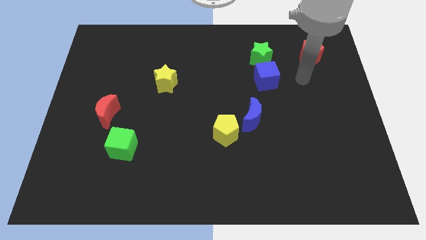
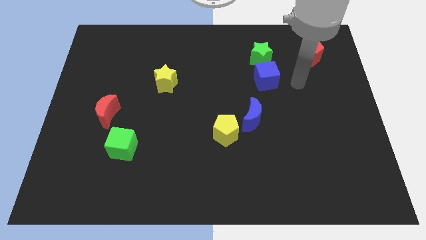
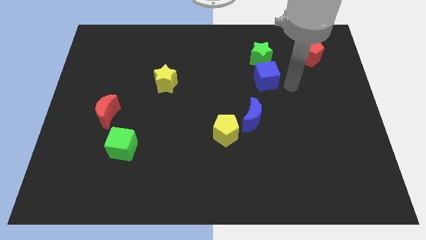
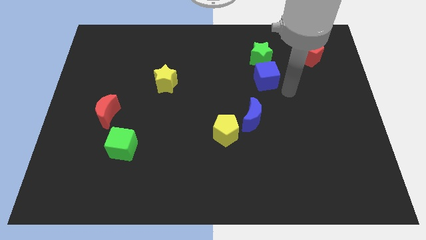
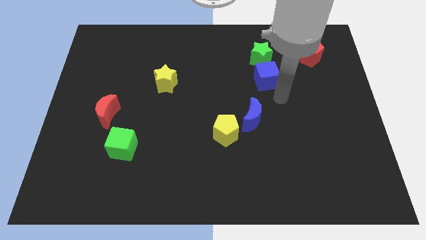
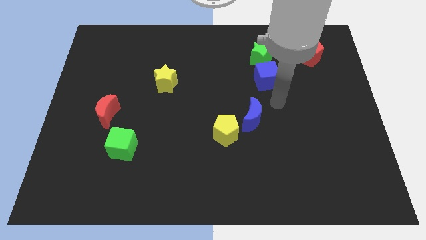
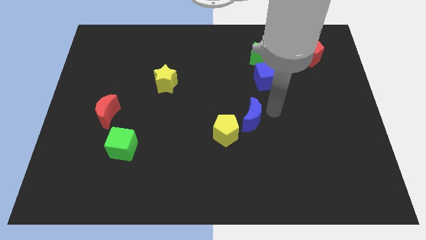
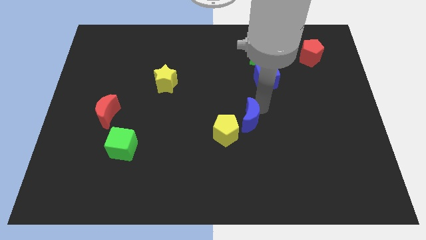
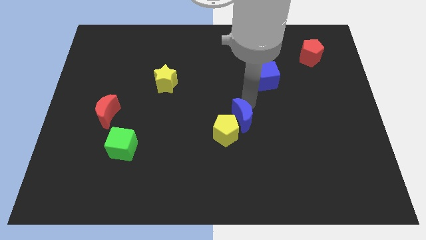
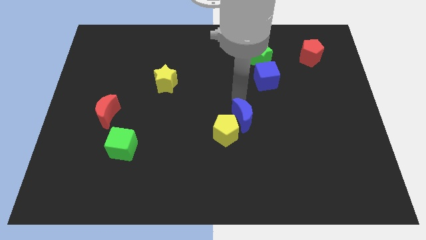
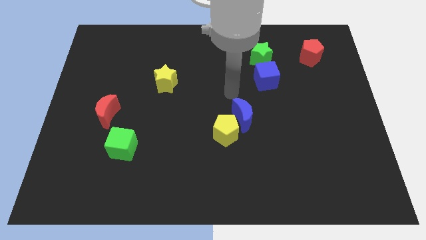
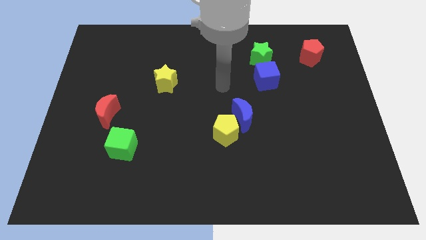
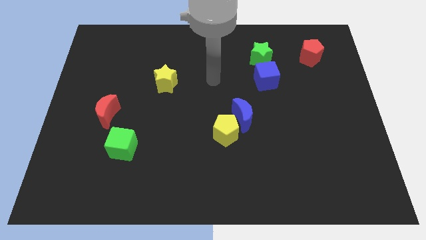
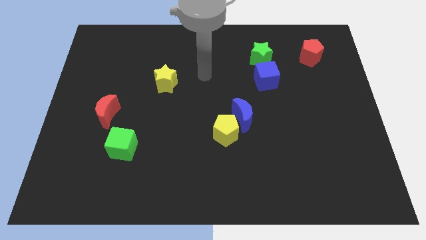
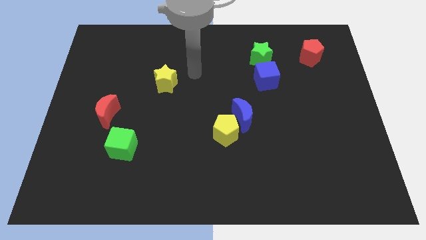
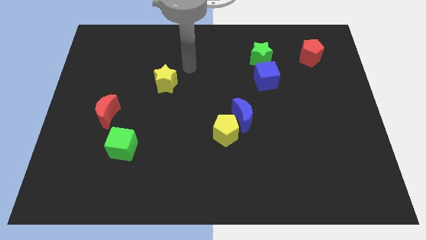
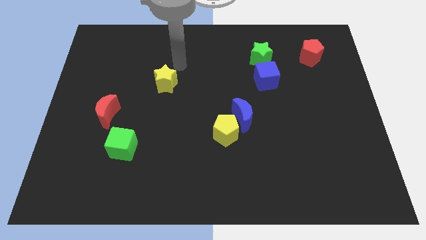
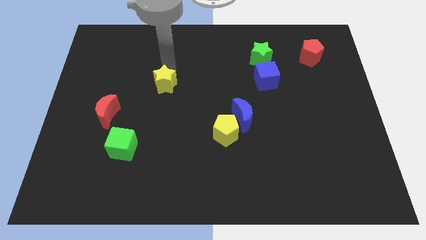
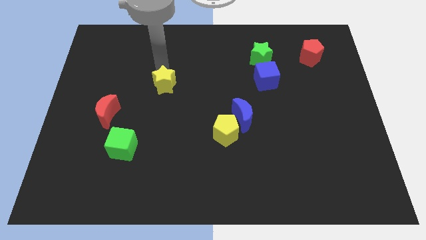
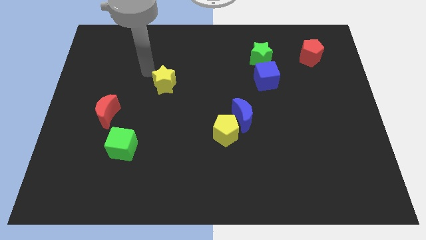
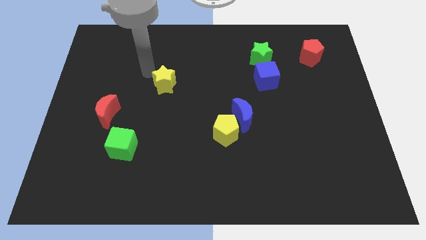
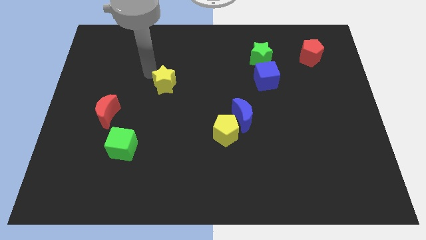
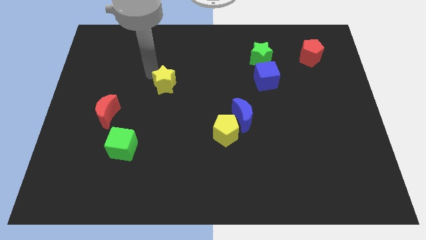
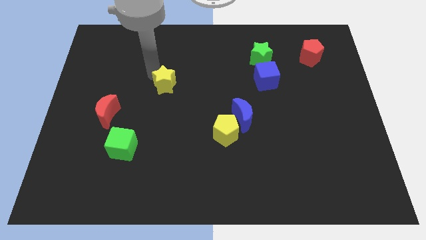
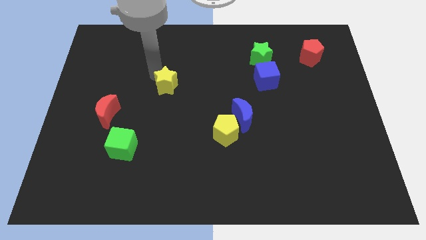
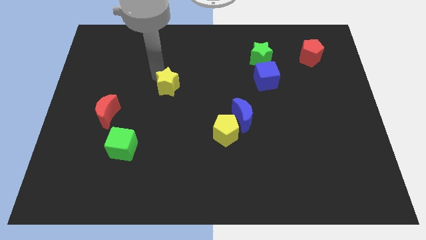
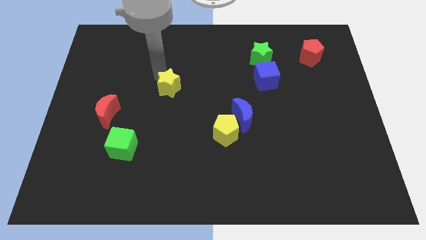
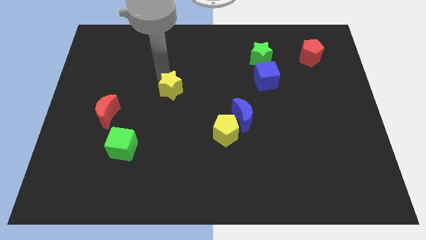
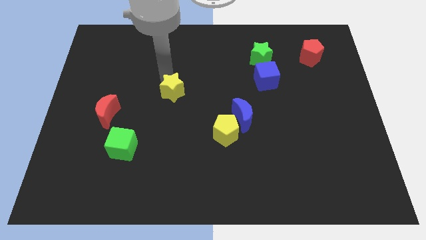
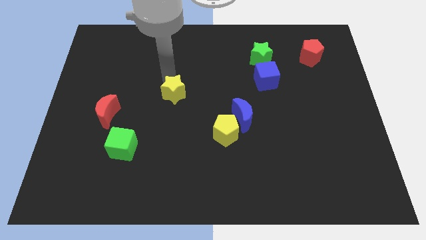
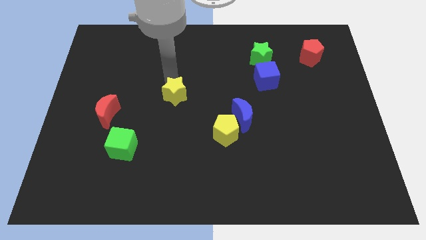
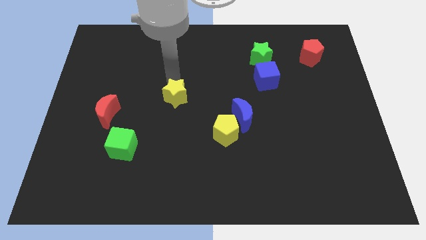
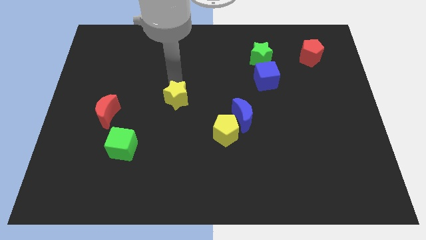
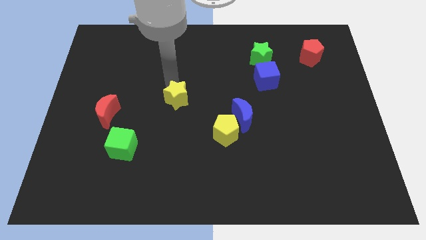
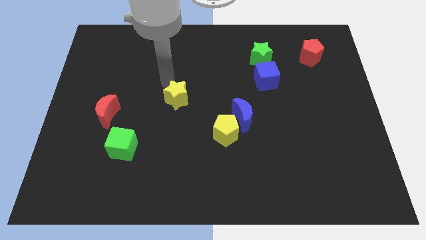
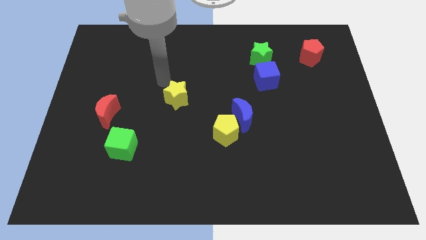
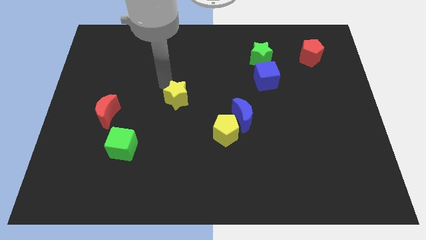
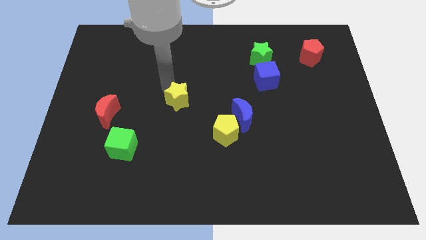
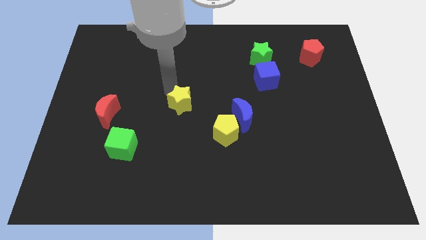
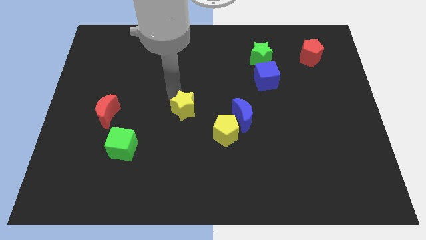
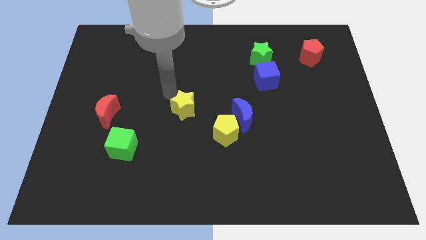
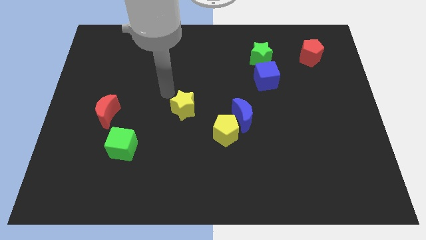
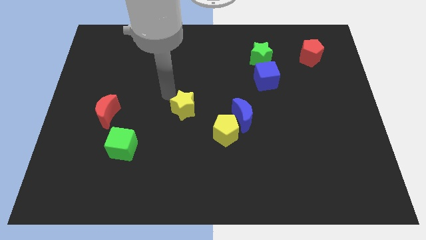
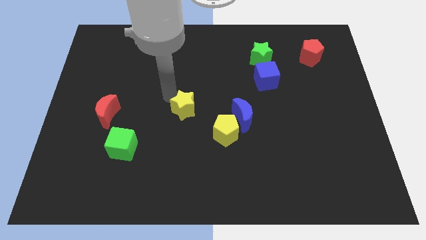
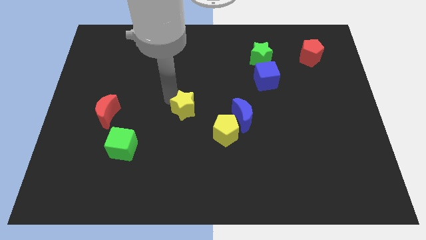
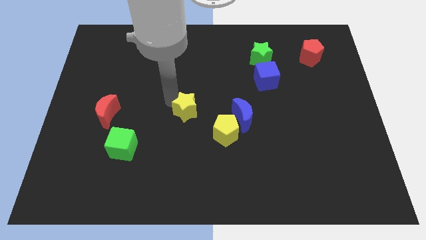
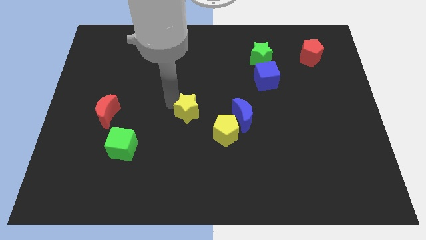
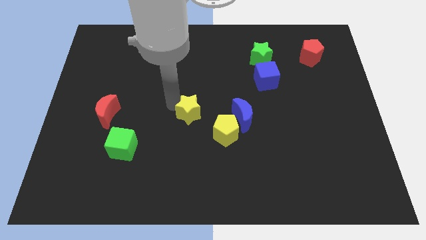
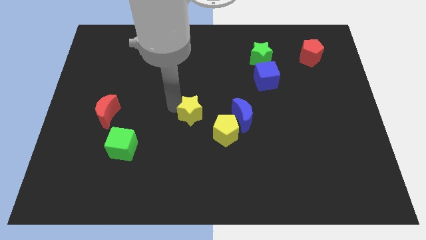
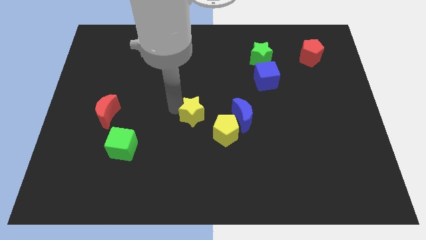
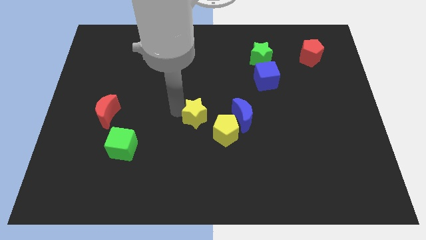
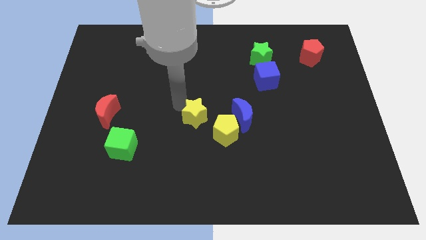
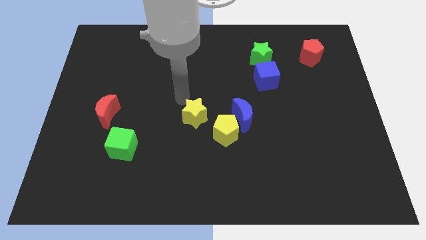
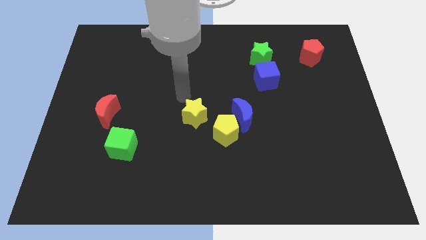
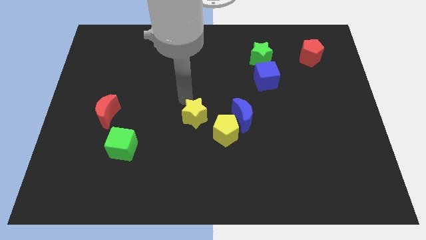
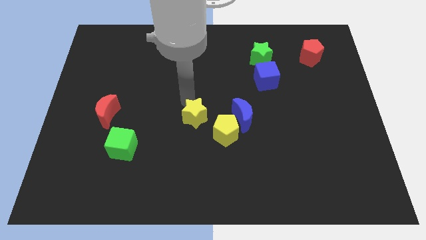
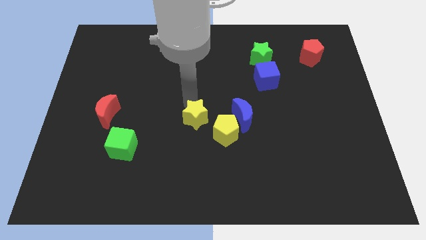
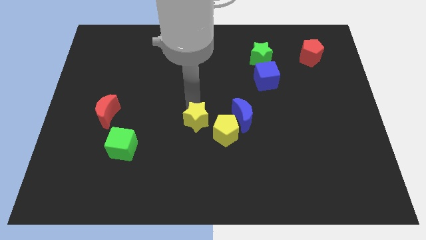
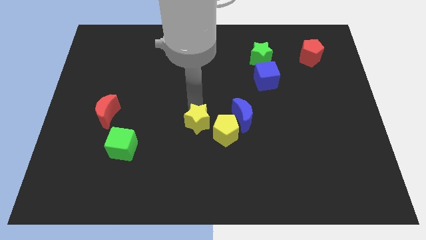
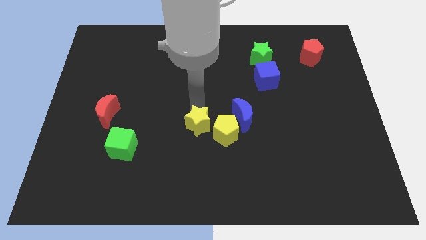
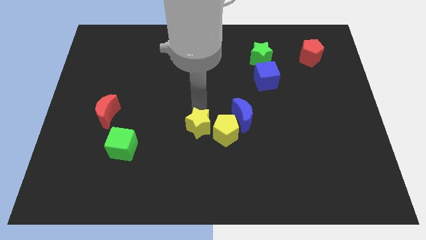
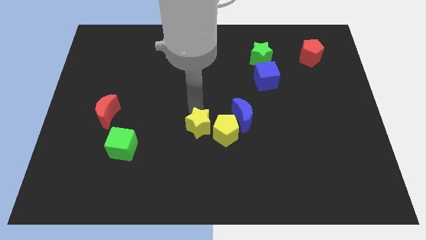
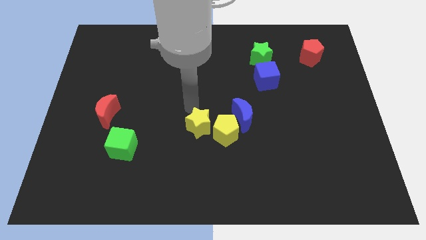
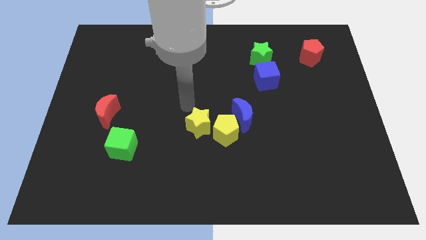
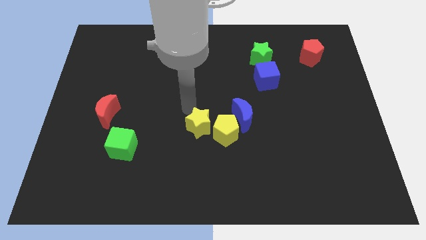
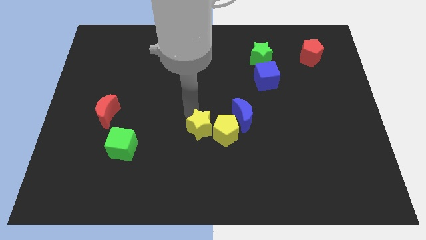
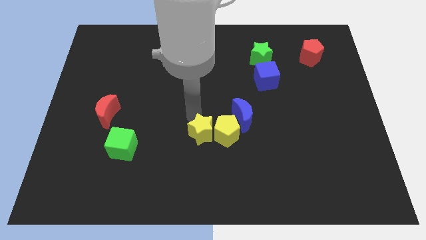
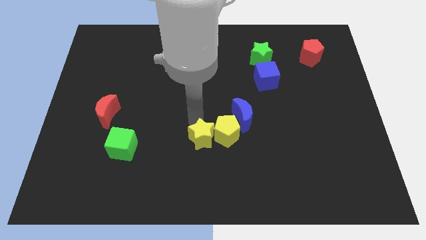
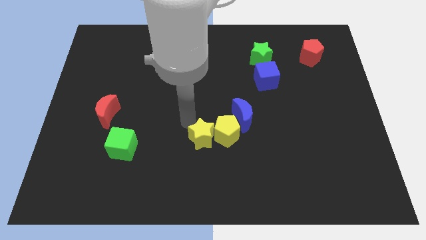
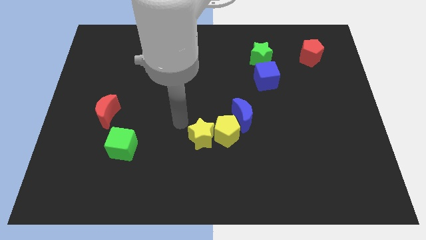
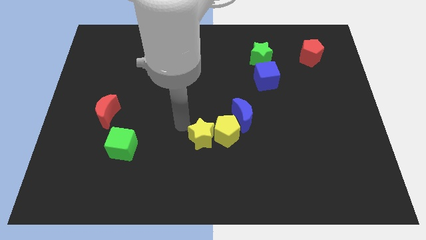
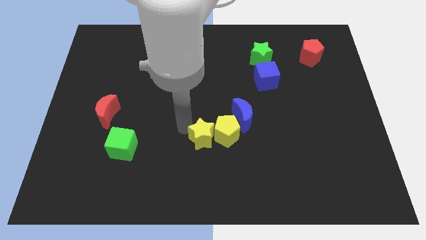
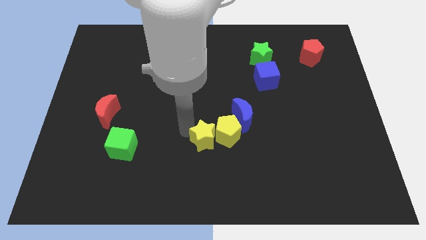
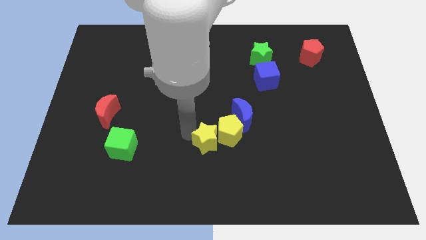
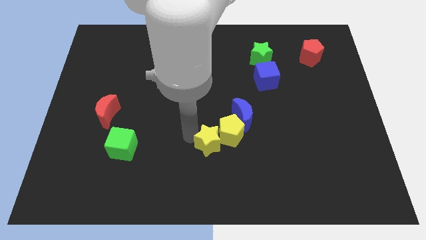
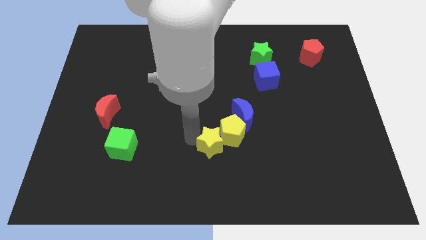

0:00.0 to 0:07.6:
slide the yellow star downwards and right diagonally

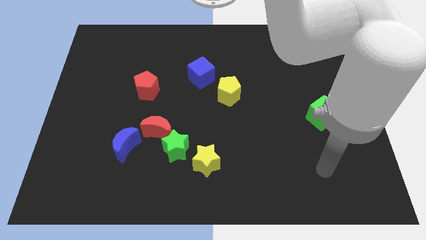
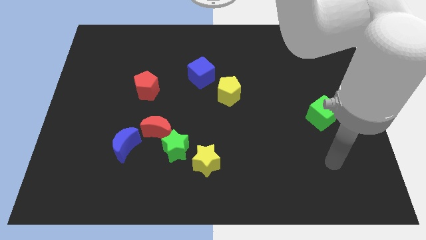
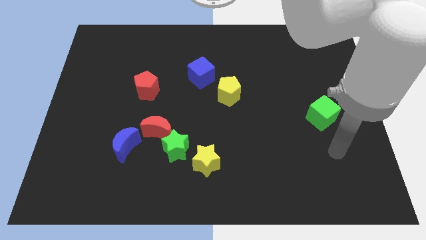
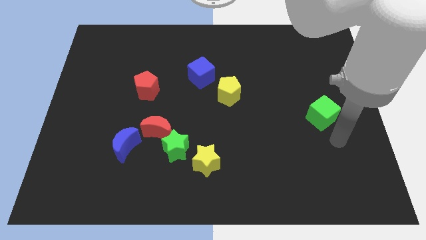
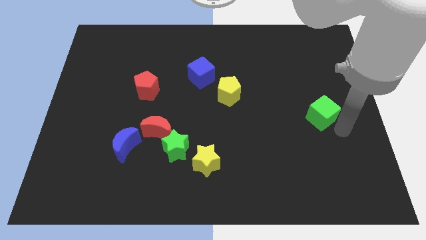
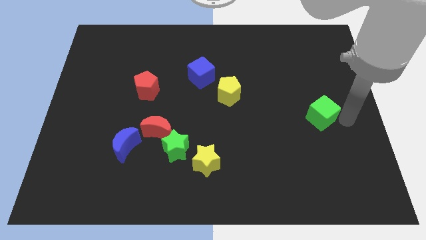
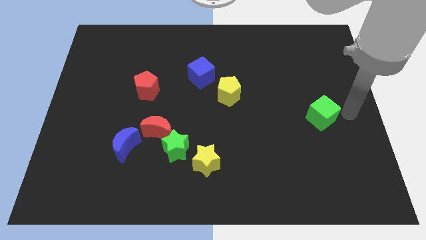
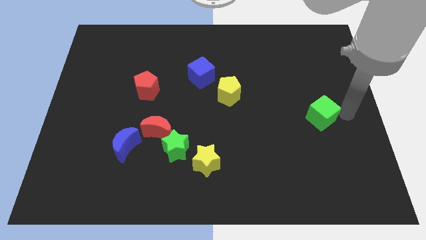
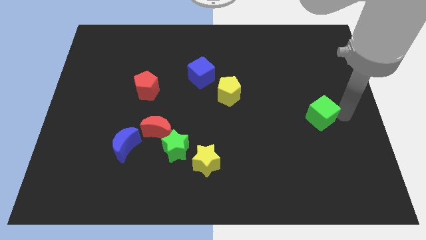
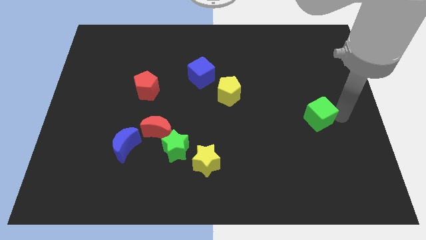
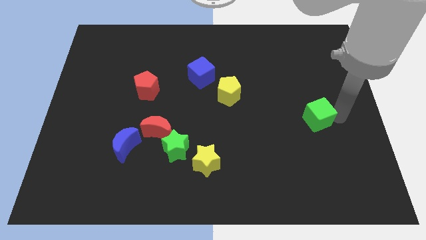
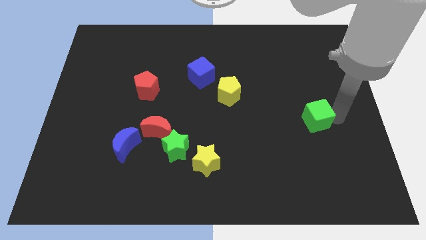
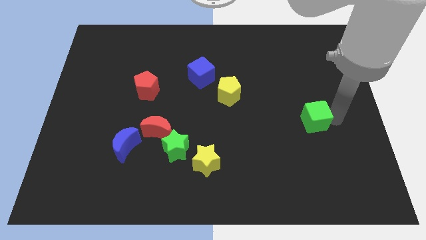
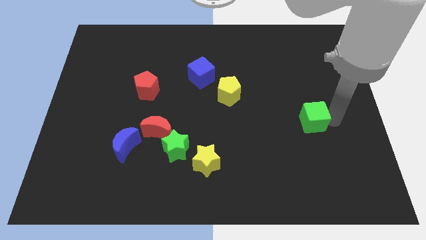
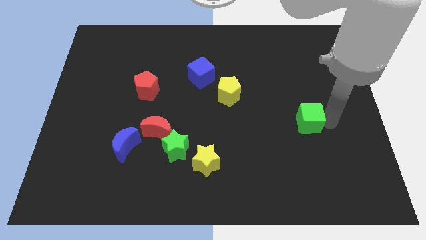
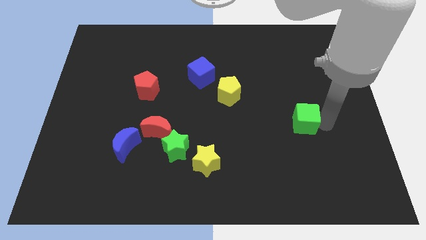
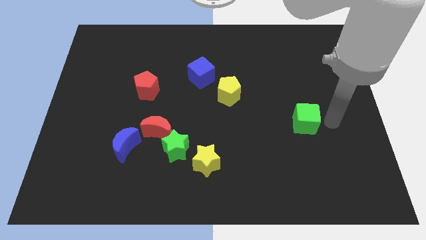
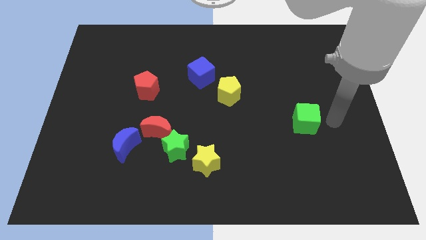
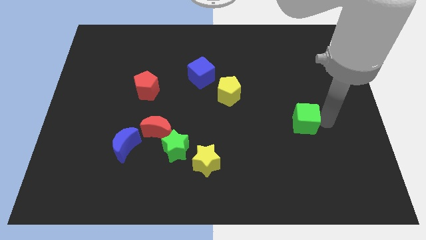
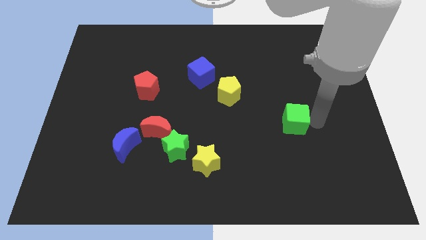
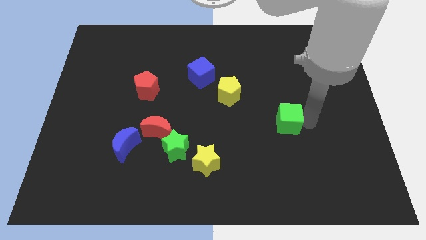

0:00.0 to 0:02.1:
slide the green cube to the left slightly
